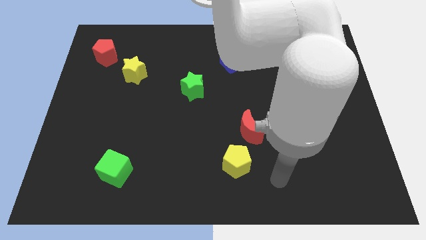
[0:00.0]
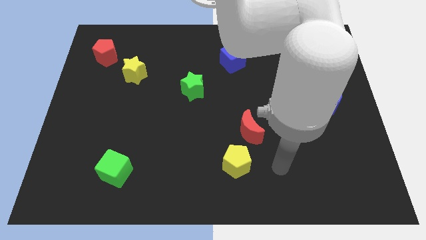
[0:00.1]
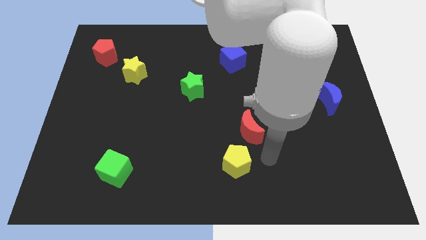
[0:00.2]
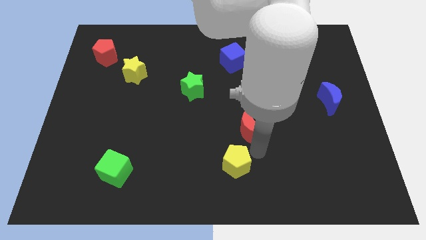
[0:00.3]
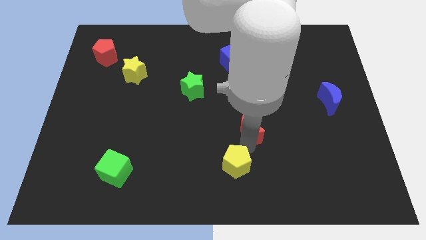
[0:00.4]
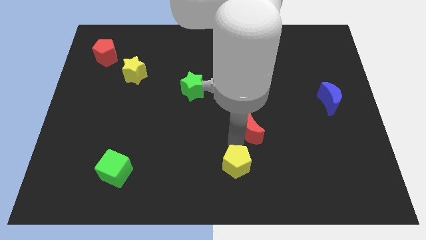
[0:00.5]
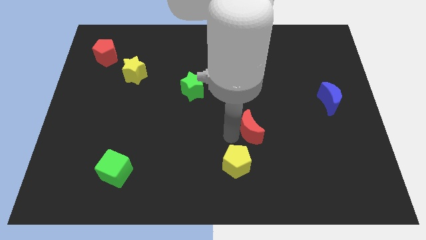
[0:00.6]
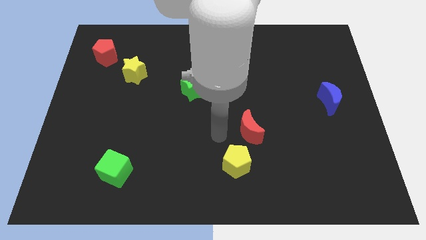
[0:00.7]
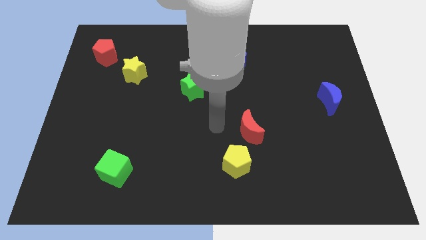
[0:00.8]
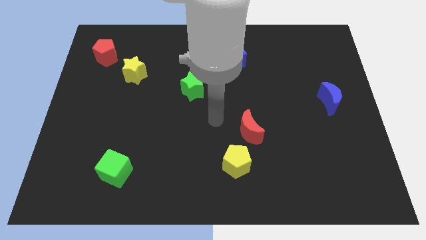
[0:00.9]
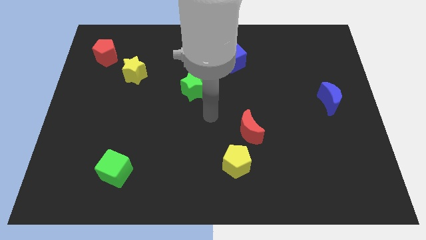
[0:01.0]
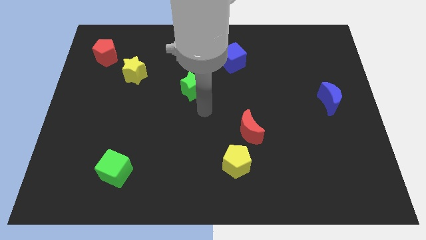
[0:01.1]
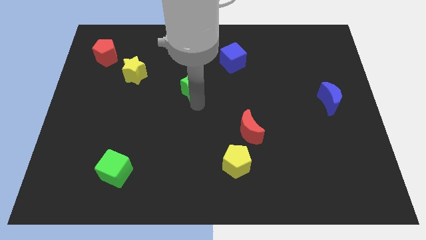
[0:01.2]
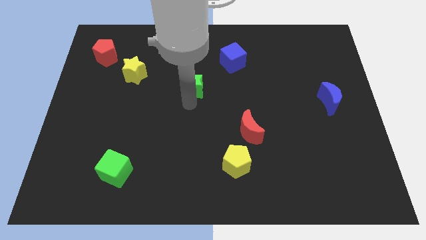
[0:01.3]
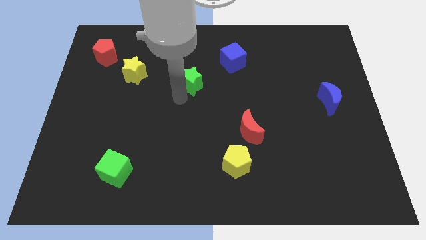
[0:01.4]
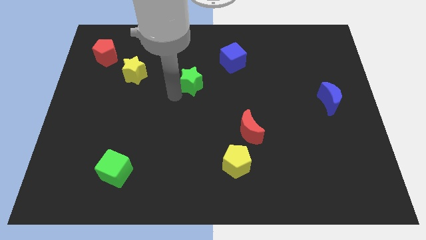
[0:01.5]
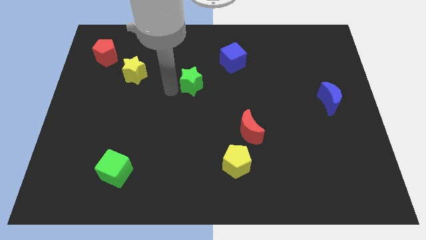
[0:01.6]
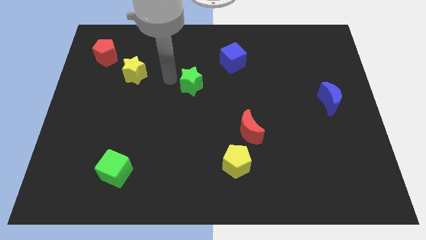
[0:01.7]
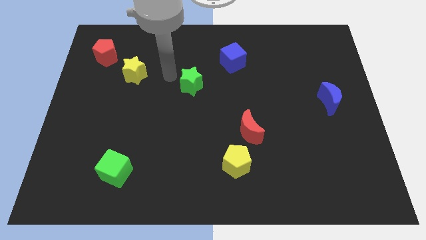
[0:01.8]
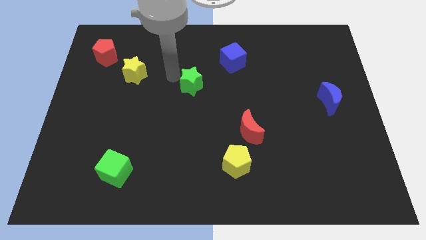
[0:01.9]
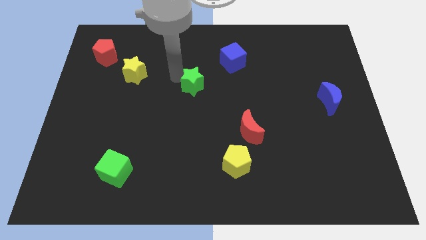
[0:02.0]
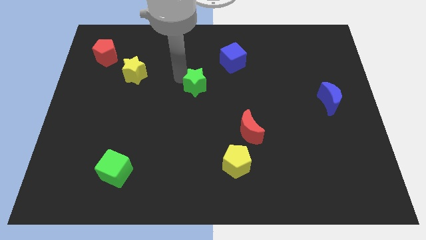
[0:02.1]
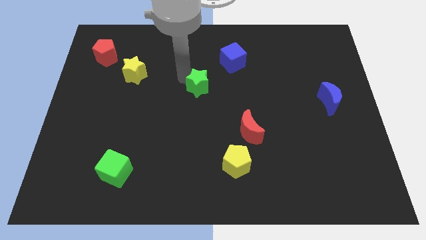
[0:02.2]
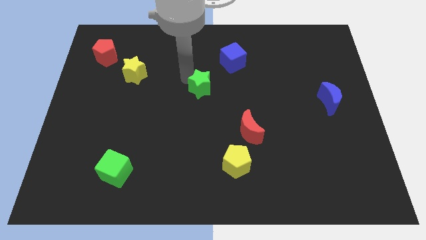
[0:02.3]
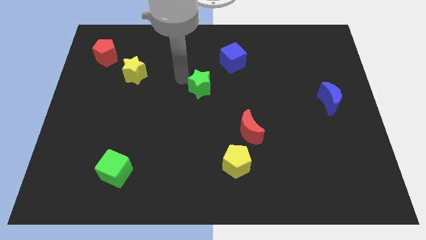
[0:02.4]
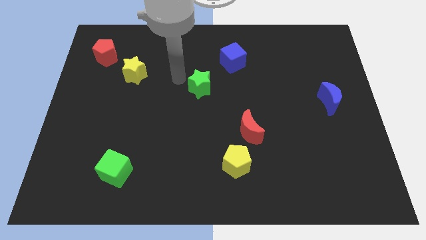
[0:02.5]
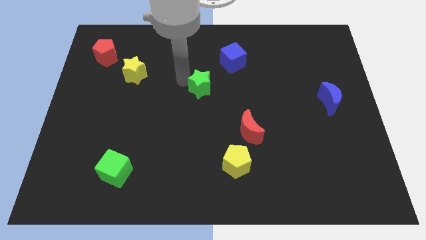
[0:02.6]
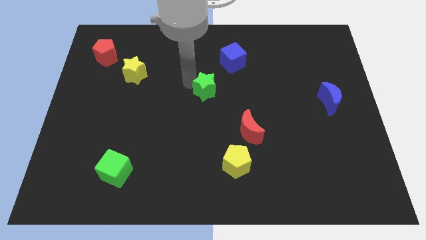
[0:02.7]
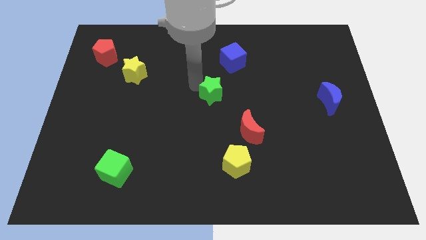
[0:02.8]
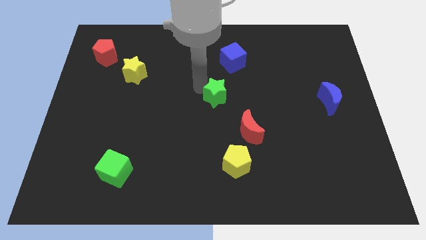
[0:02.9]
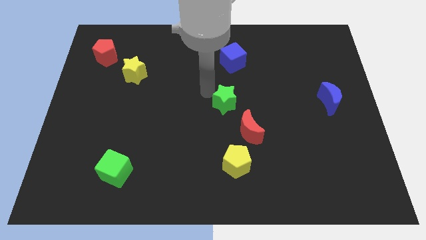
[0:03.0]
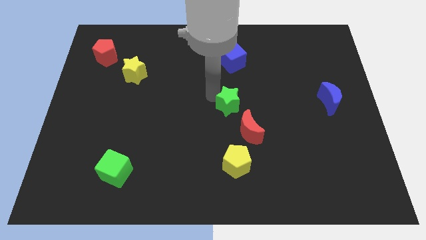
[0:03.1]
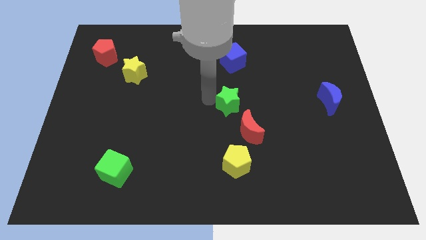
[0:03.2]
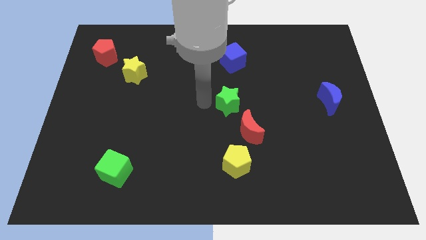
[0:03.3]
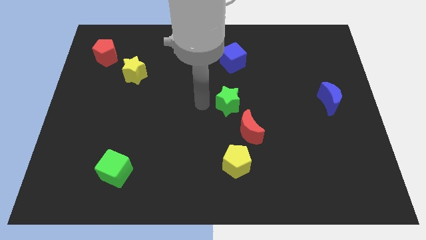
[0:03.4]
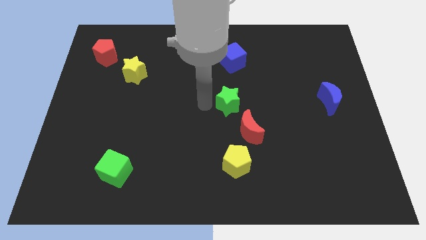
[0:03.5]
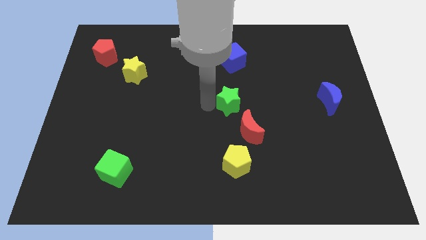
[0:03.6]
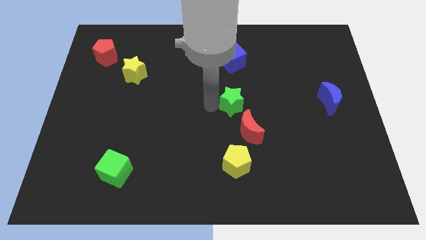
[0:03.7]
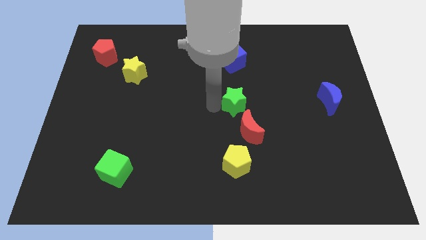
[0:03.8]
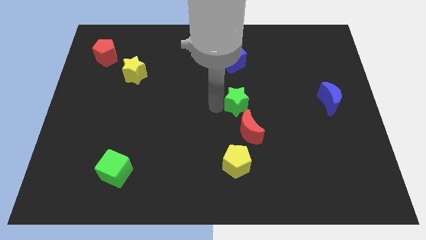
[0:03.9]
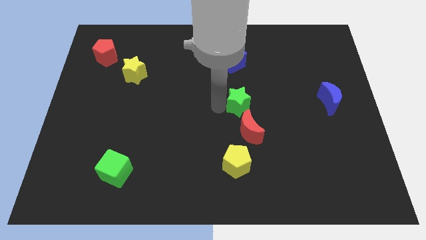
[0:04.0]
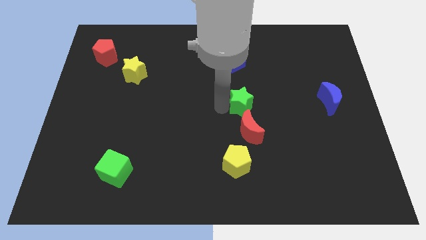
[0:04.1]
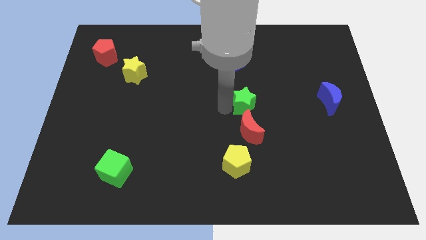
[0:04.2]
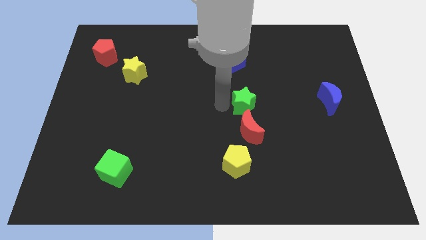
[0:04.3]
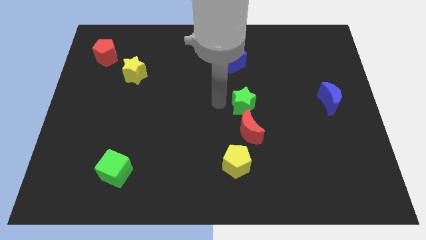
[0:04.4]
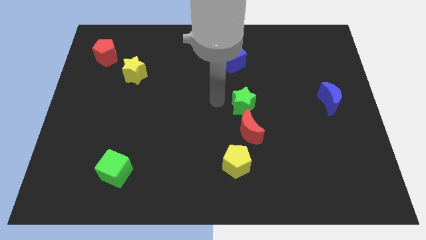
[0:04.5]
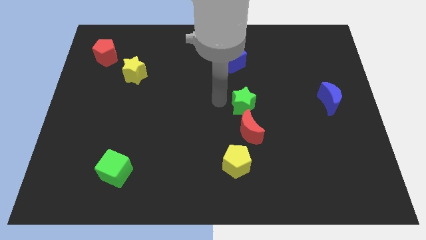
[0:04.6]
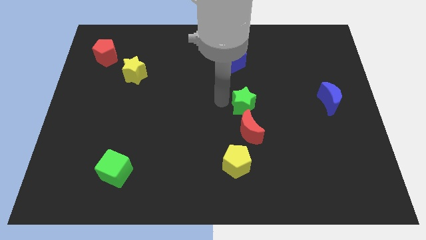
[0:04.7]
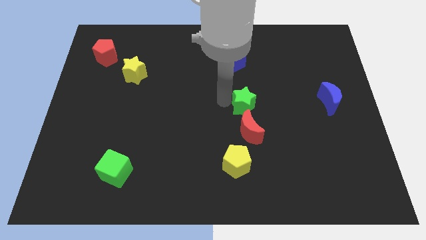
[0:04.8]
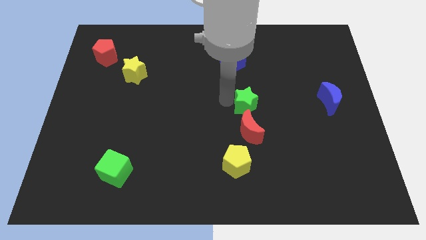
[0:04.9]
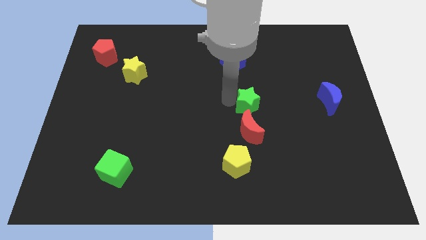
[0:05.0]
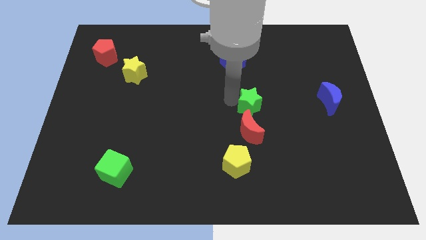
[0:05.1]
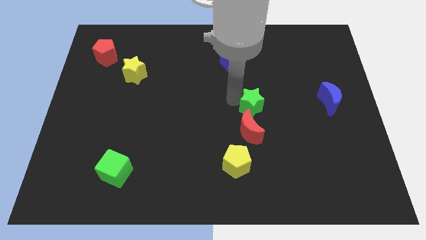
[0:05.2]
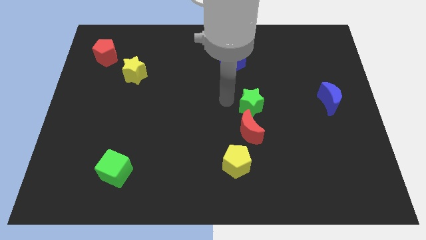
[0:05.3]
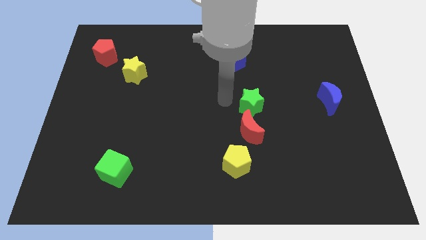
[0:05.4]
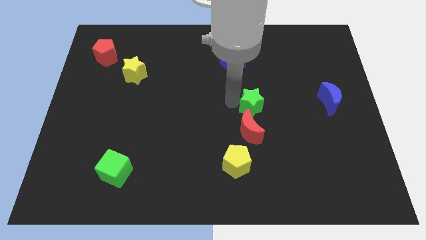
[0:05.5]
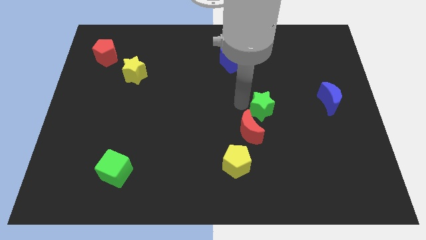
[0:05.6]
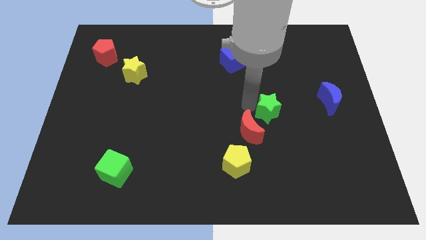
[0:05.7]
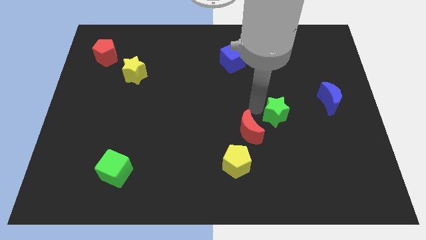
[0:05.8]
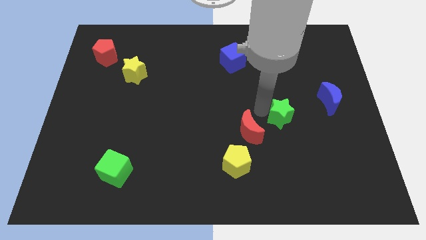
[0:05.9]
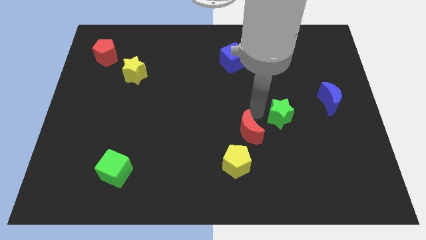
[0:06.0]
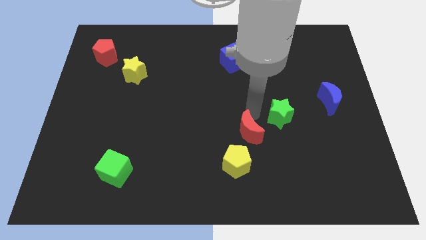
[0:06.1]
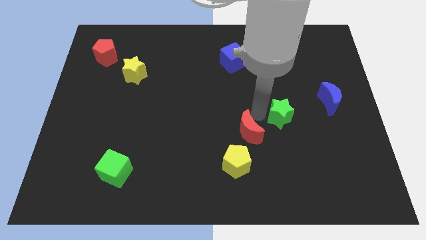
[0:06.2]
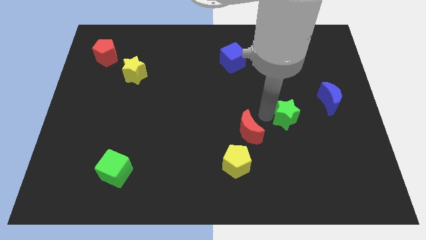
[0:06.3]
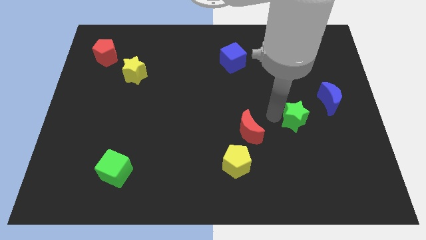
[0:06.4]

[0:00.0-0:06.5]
push the green star to the bottom left side of the blue moon

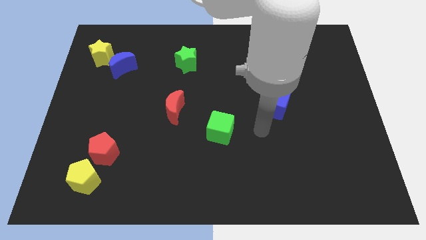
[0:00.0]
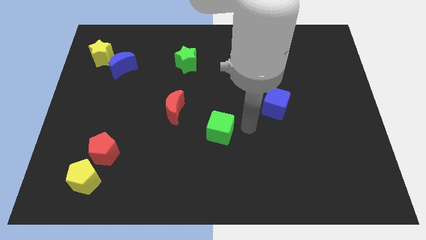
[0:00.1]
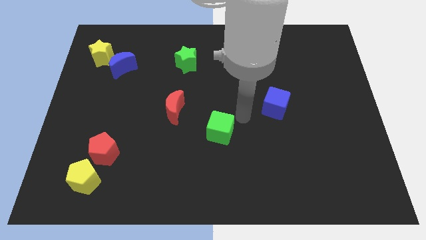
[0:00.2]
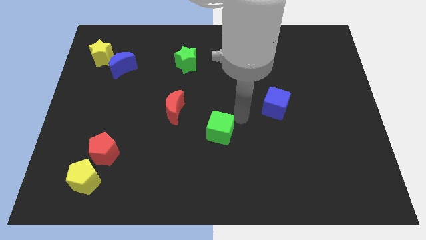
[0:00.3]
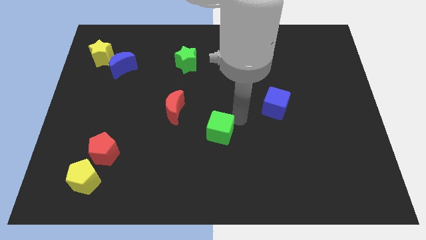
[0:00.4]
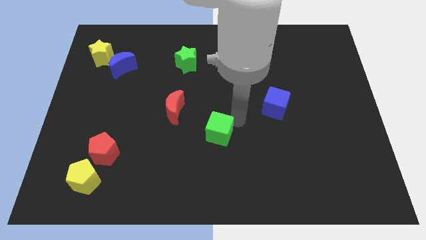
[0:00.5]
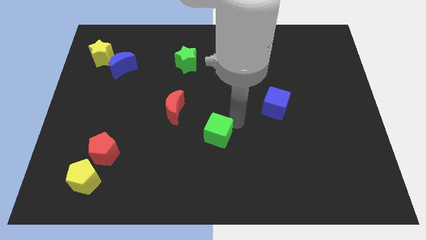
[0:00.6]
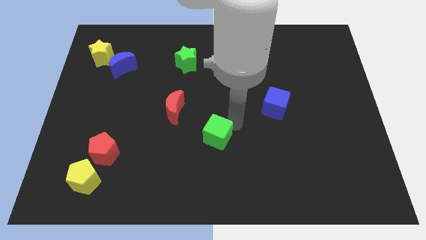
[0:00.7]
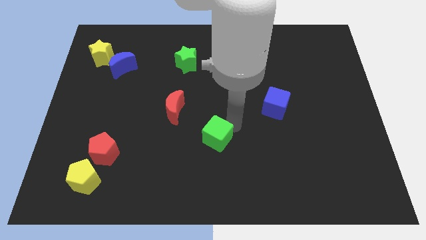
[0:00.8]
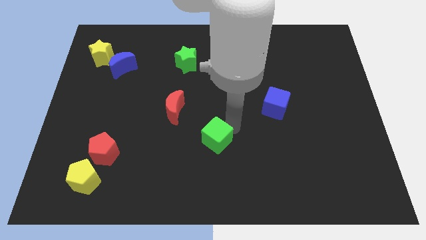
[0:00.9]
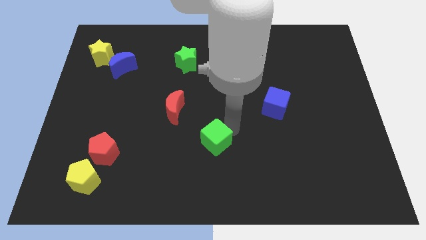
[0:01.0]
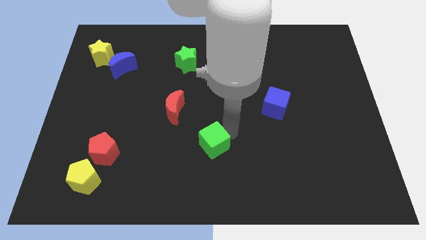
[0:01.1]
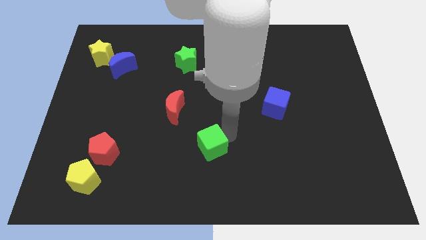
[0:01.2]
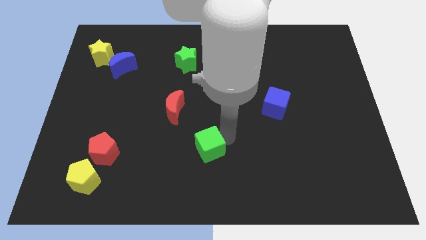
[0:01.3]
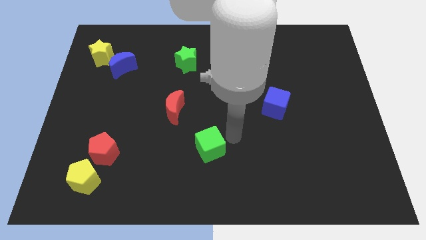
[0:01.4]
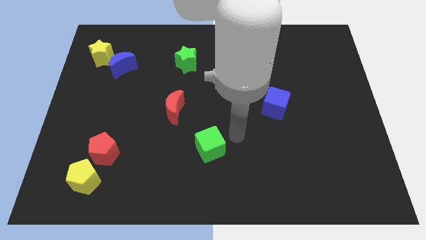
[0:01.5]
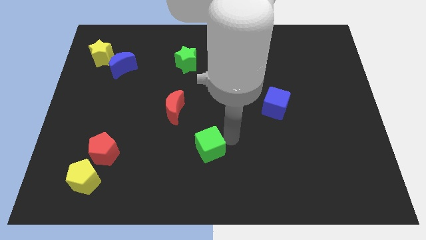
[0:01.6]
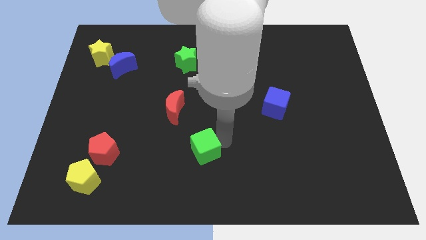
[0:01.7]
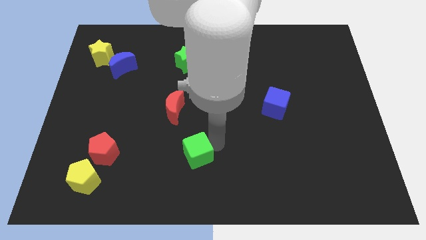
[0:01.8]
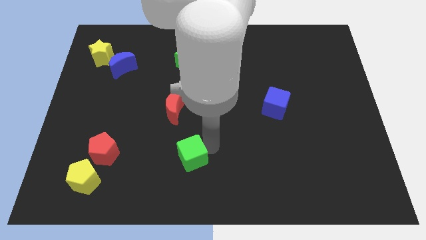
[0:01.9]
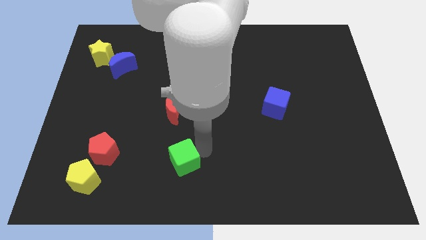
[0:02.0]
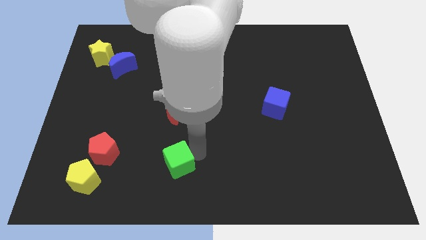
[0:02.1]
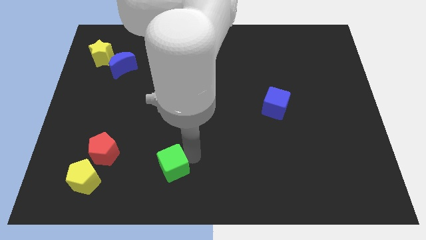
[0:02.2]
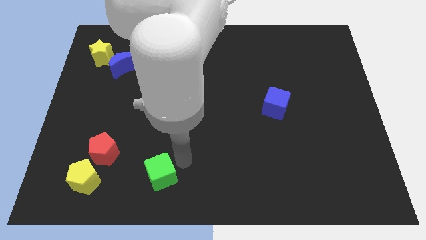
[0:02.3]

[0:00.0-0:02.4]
slide the green cube to the right side of the yellow pentagon
